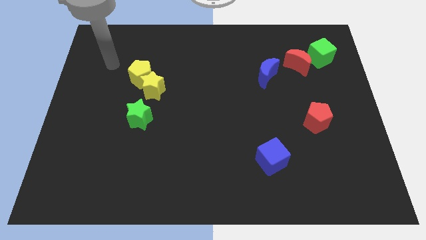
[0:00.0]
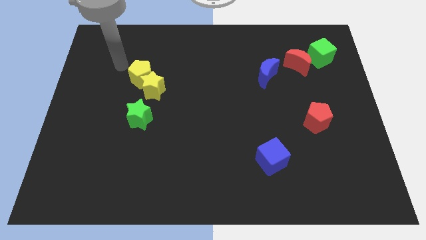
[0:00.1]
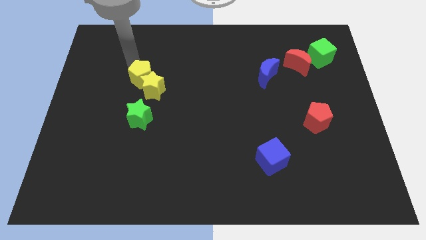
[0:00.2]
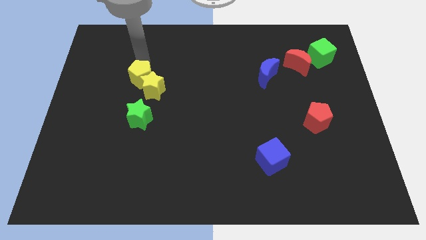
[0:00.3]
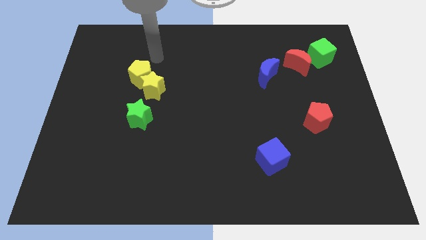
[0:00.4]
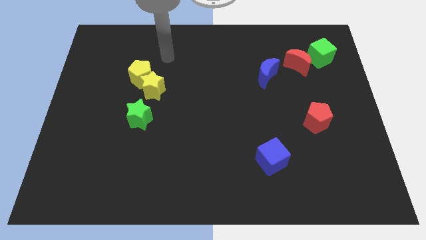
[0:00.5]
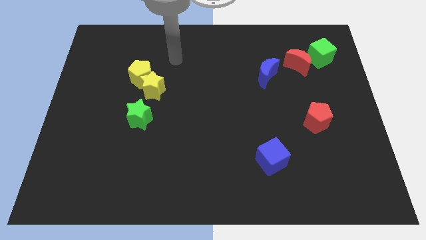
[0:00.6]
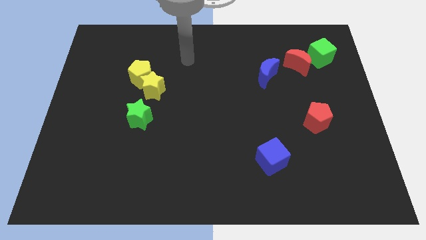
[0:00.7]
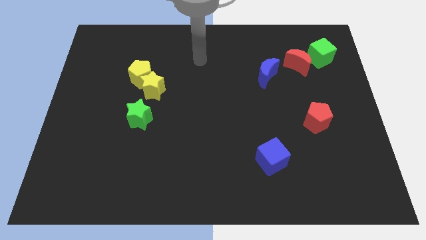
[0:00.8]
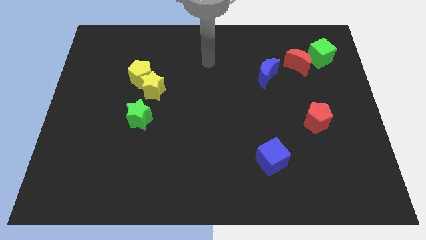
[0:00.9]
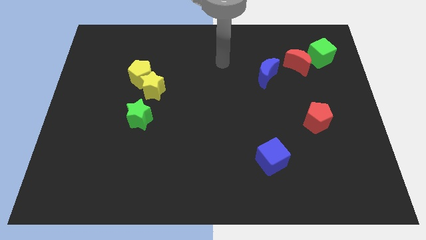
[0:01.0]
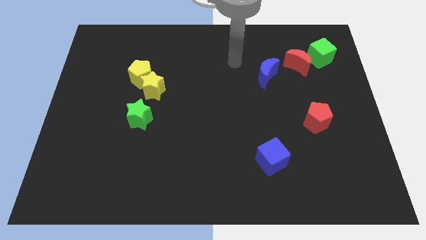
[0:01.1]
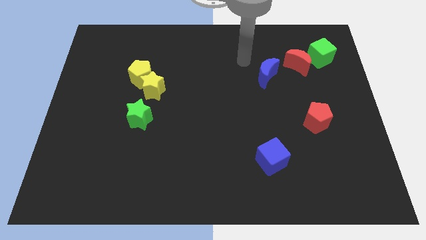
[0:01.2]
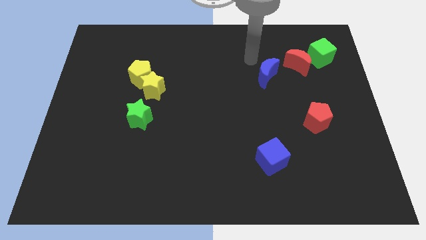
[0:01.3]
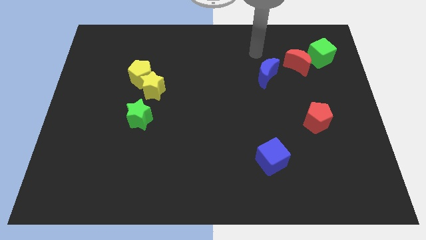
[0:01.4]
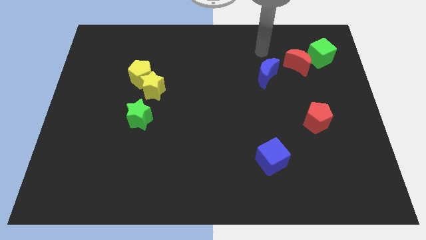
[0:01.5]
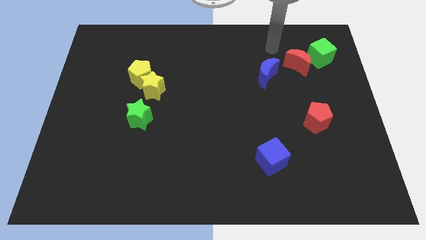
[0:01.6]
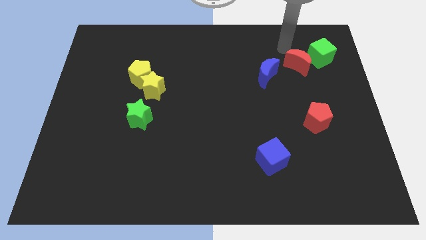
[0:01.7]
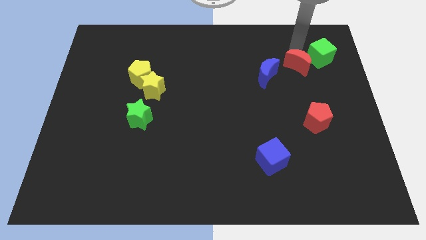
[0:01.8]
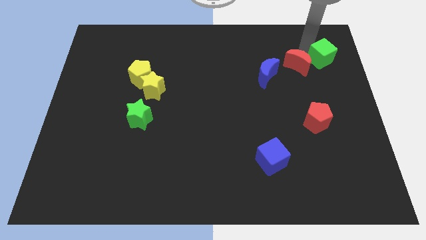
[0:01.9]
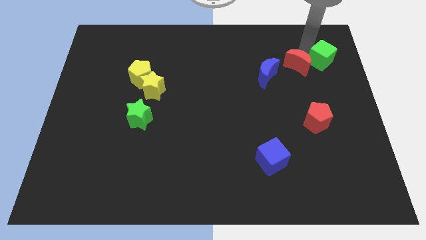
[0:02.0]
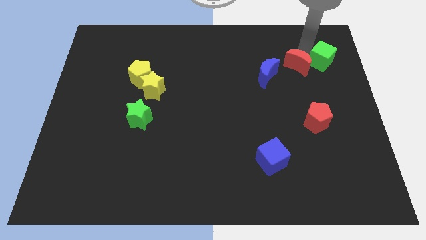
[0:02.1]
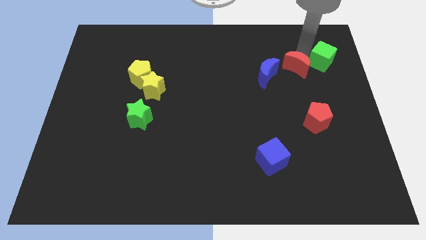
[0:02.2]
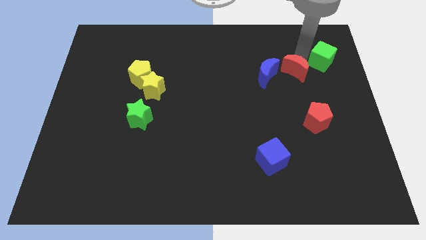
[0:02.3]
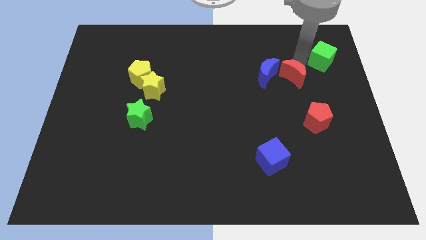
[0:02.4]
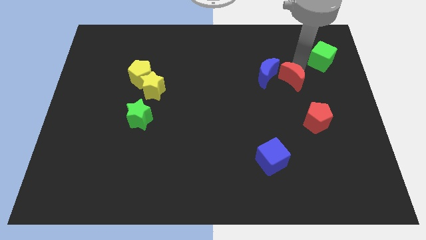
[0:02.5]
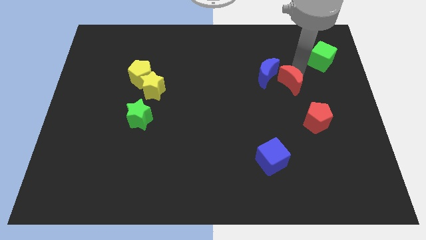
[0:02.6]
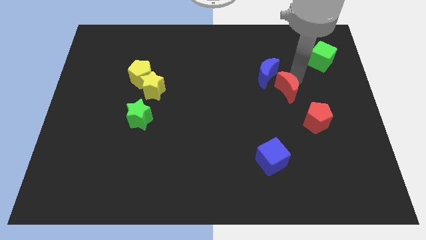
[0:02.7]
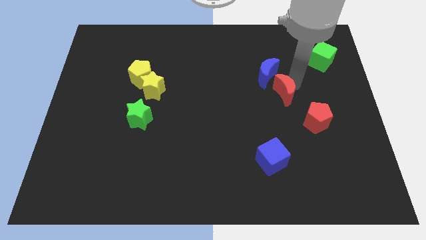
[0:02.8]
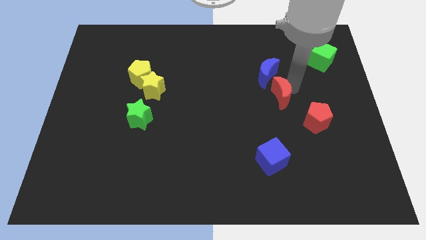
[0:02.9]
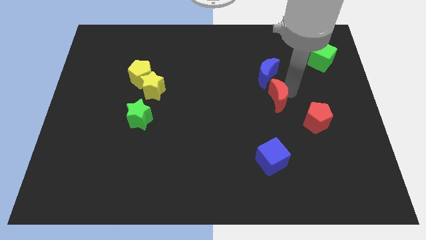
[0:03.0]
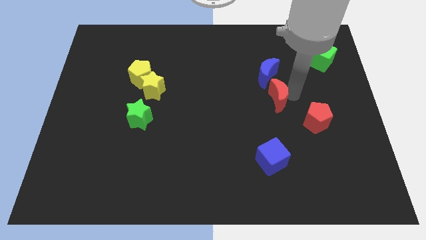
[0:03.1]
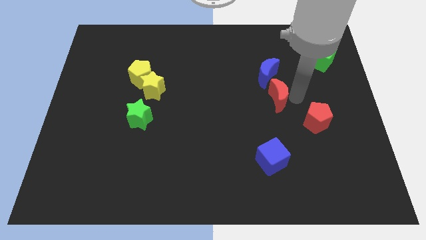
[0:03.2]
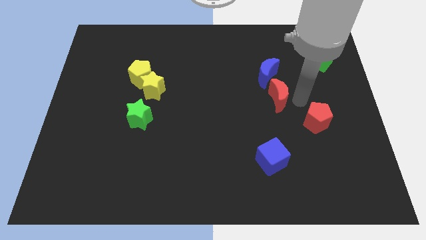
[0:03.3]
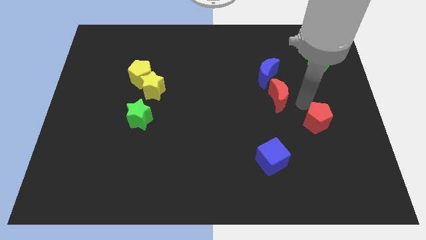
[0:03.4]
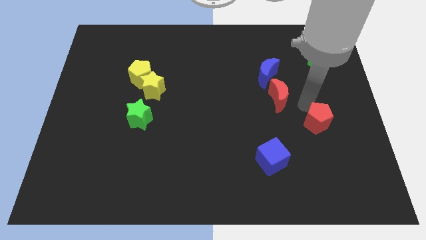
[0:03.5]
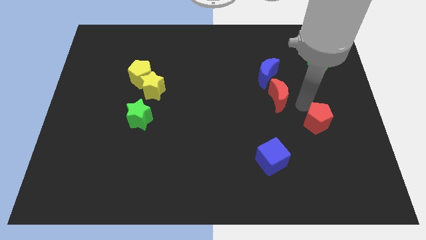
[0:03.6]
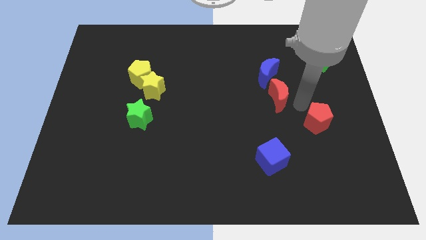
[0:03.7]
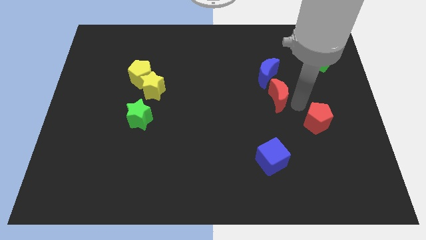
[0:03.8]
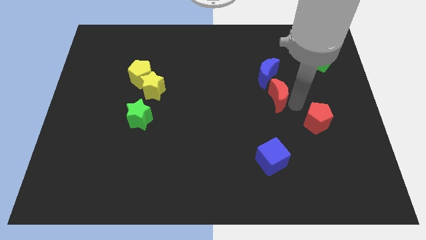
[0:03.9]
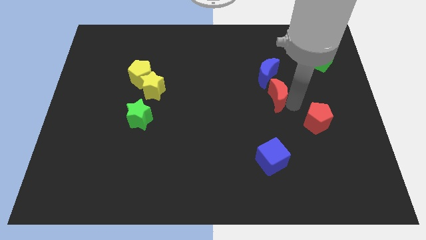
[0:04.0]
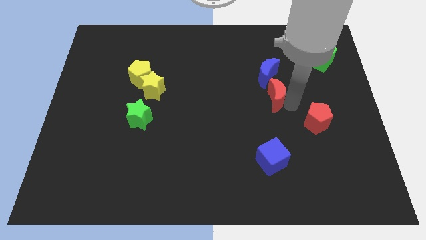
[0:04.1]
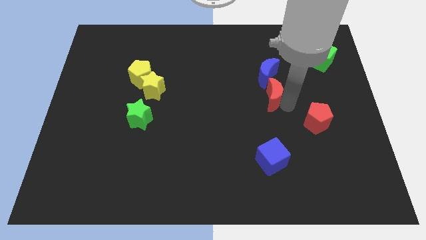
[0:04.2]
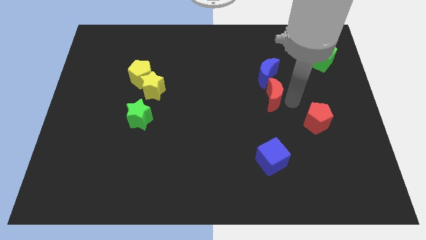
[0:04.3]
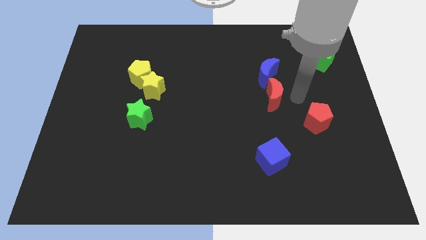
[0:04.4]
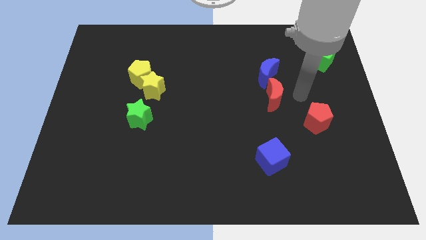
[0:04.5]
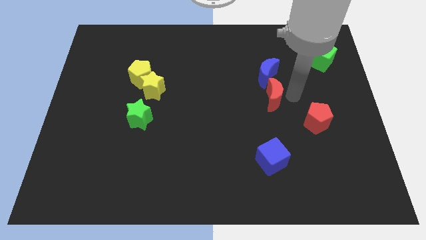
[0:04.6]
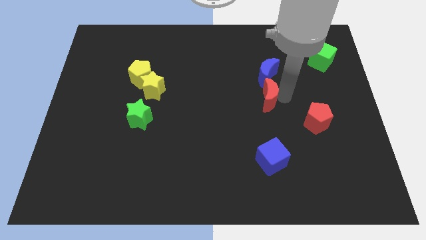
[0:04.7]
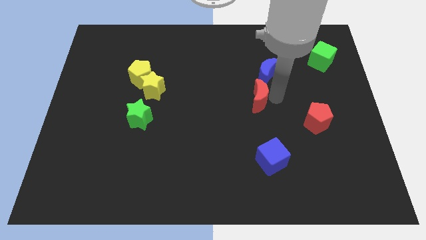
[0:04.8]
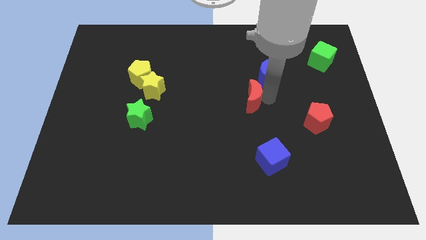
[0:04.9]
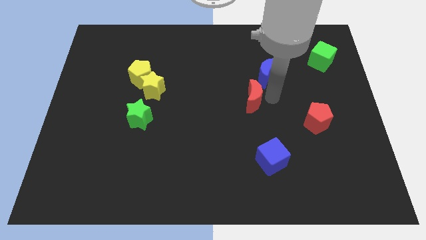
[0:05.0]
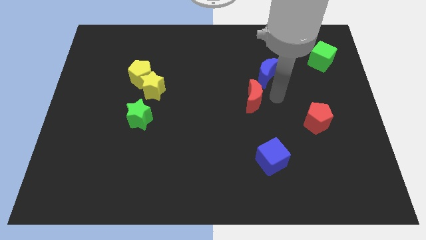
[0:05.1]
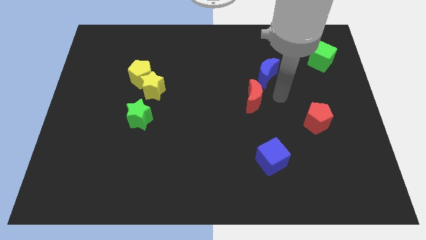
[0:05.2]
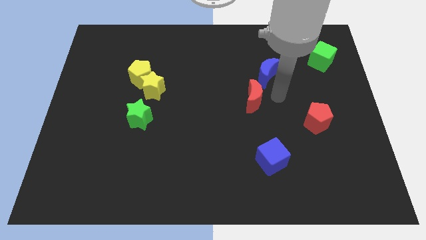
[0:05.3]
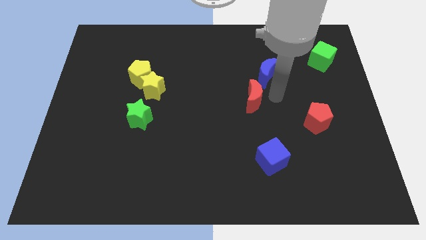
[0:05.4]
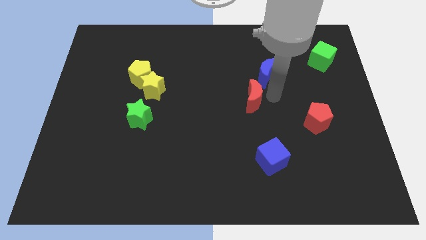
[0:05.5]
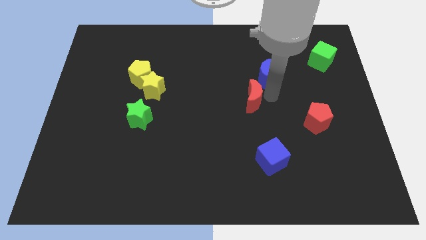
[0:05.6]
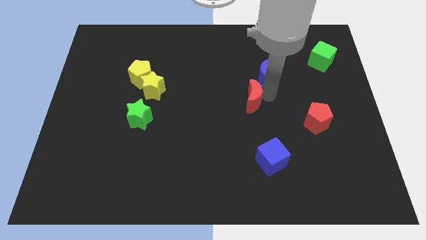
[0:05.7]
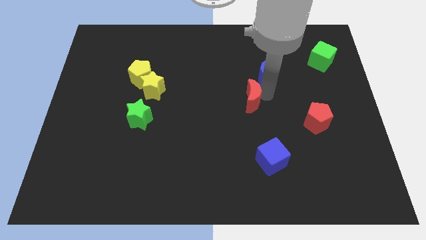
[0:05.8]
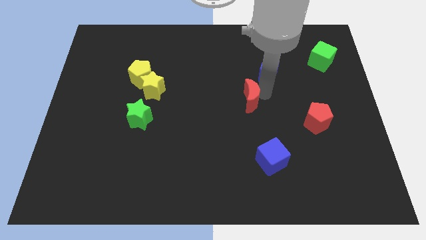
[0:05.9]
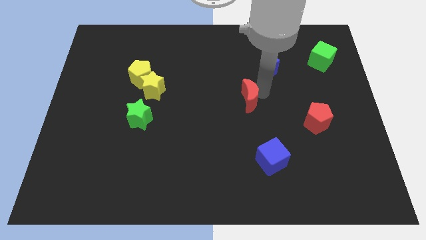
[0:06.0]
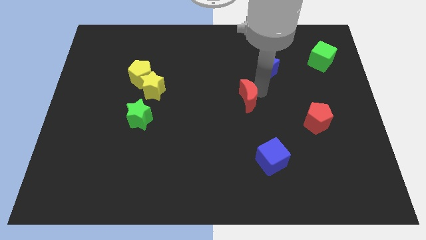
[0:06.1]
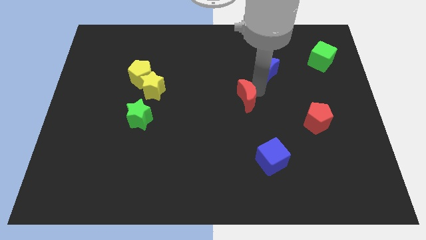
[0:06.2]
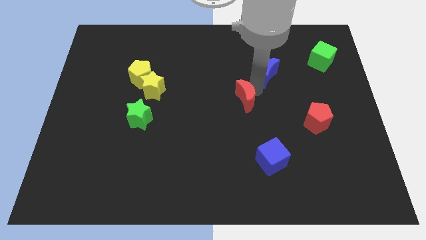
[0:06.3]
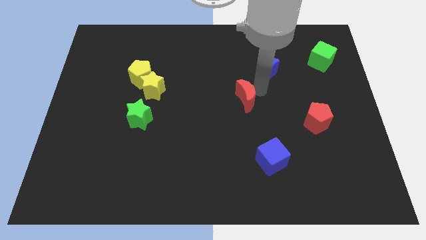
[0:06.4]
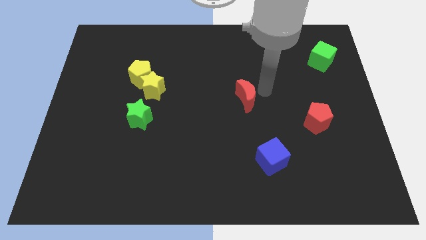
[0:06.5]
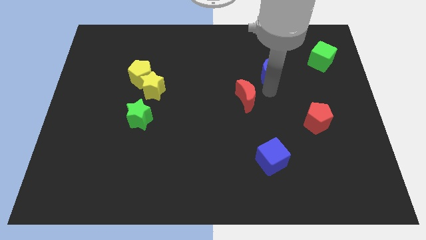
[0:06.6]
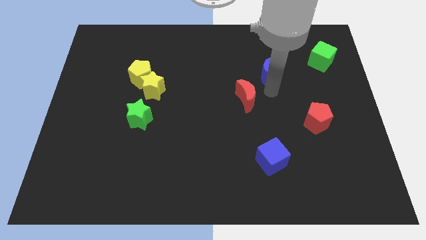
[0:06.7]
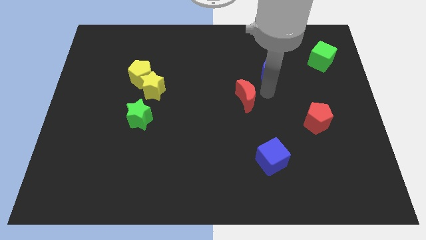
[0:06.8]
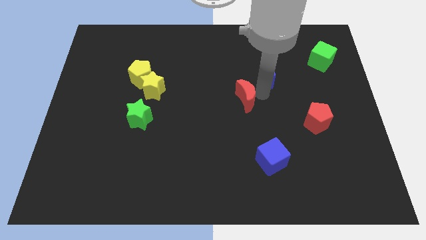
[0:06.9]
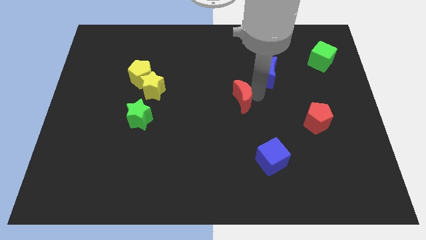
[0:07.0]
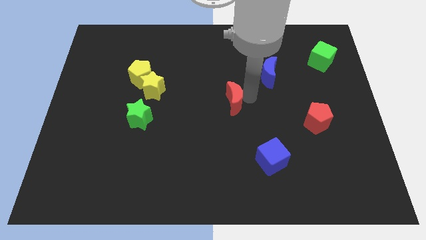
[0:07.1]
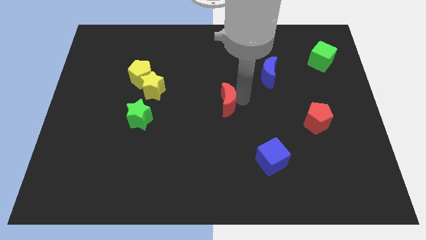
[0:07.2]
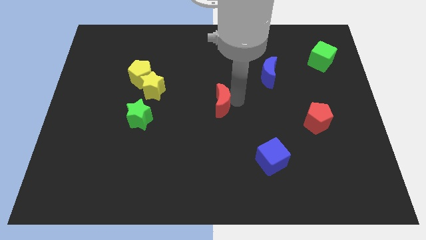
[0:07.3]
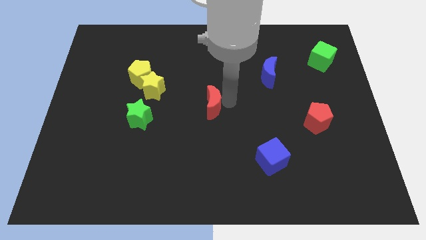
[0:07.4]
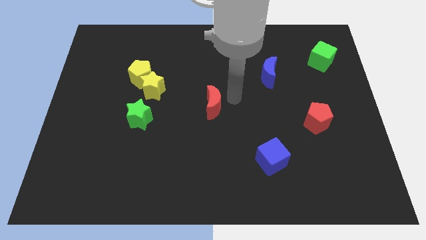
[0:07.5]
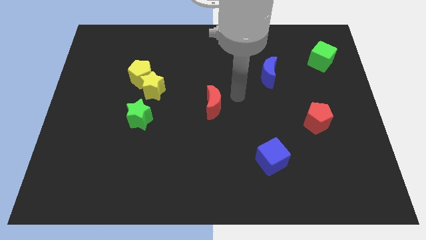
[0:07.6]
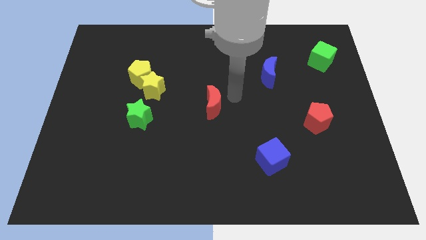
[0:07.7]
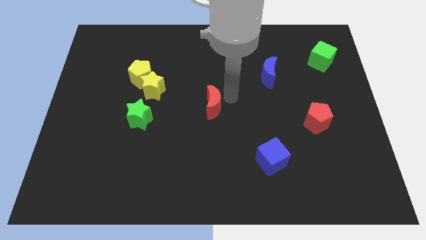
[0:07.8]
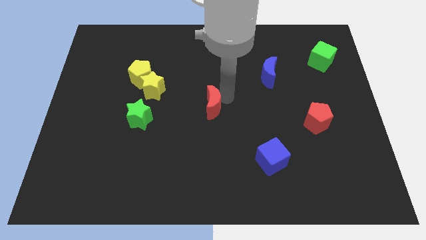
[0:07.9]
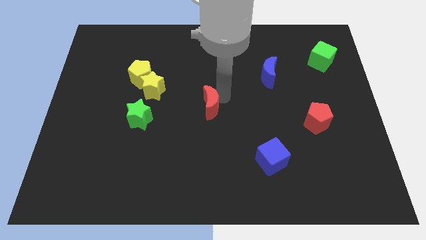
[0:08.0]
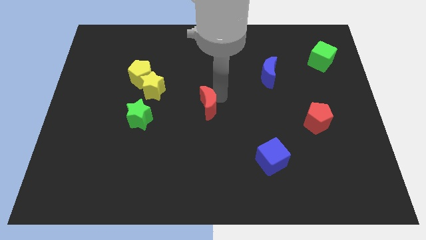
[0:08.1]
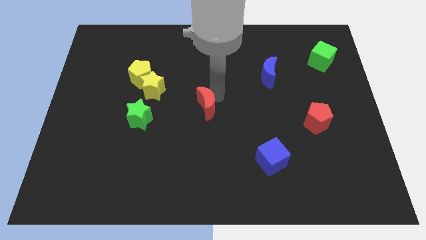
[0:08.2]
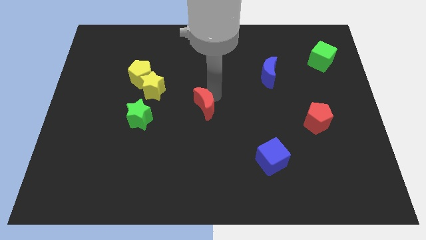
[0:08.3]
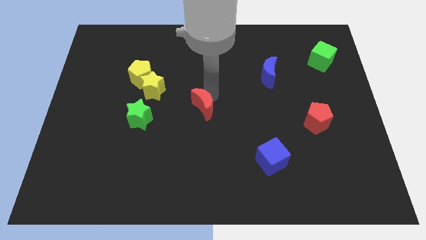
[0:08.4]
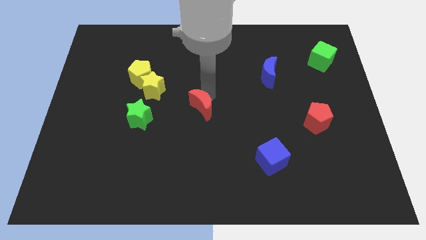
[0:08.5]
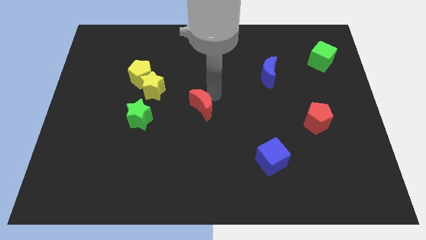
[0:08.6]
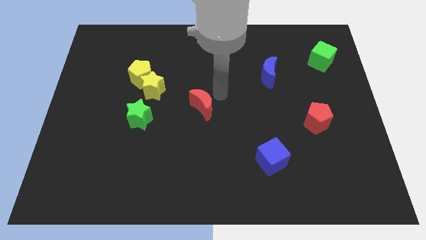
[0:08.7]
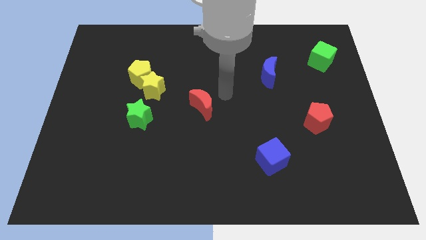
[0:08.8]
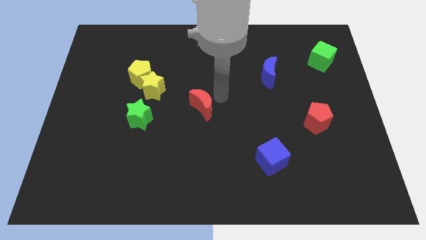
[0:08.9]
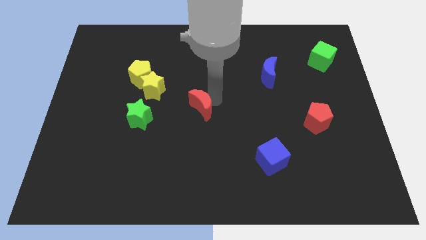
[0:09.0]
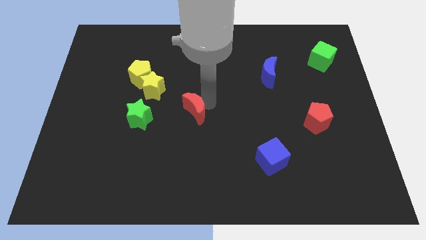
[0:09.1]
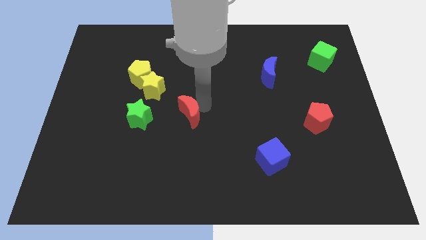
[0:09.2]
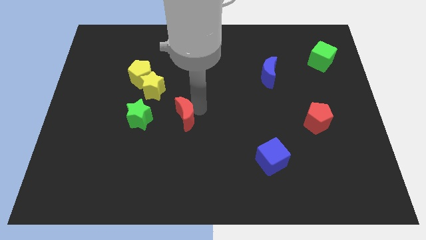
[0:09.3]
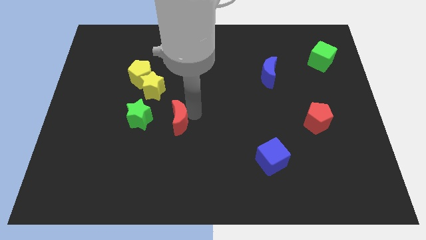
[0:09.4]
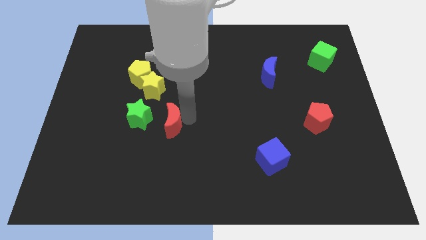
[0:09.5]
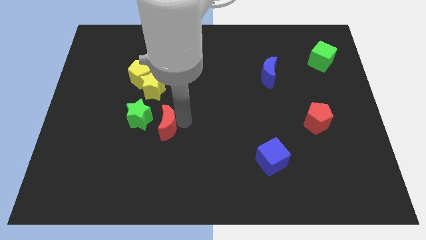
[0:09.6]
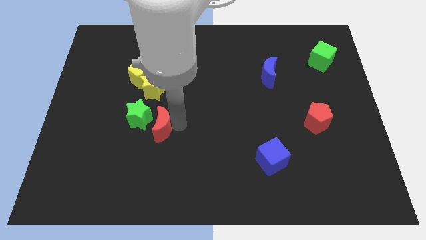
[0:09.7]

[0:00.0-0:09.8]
move the red moon close to the green star
